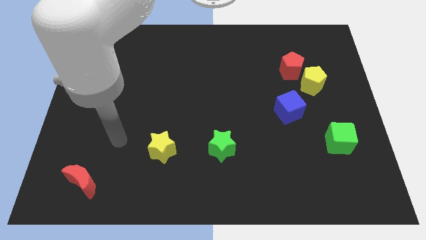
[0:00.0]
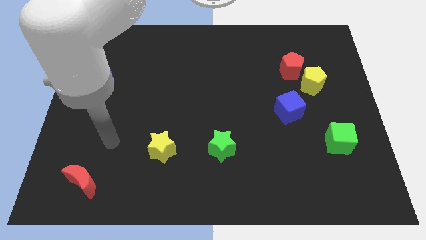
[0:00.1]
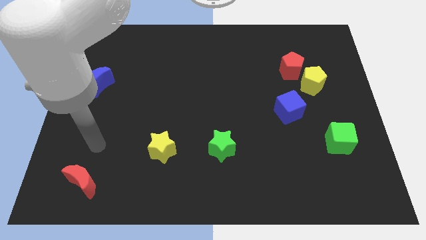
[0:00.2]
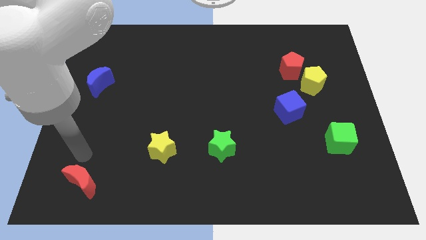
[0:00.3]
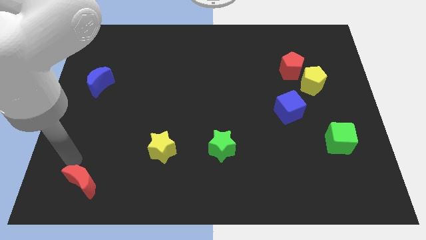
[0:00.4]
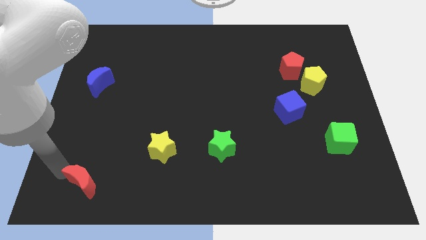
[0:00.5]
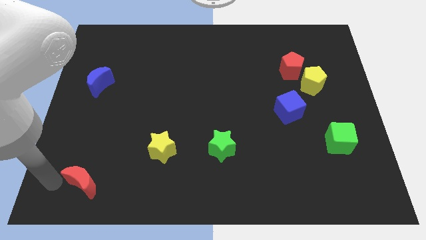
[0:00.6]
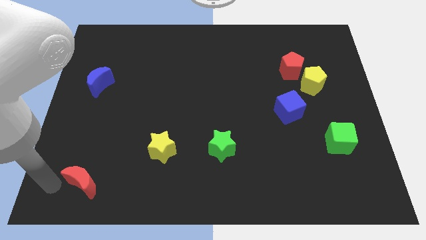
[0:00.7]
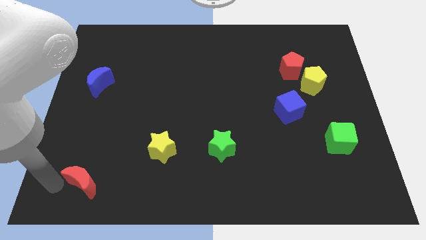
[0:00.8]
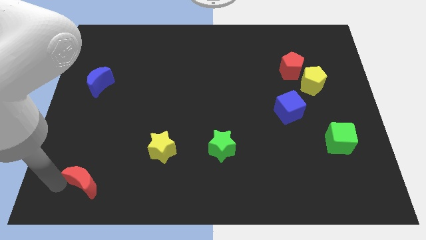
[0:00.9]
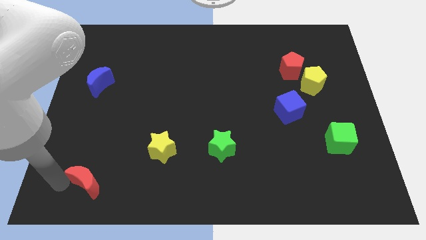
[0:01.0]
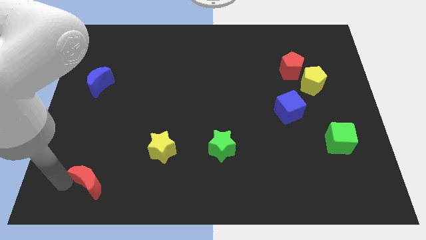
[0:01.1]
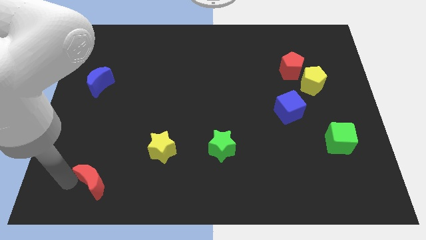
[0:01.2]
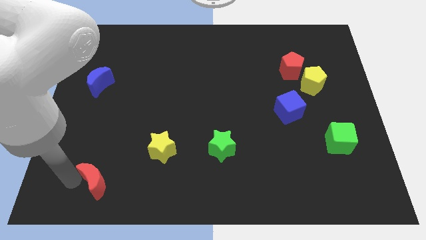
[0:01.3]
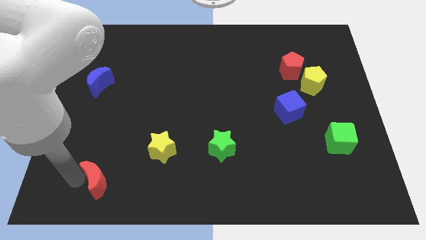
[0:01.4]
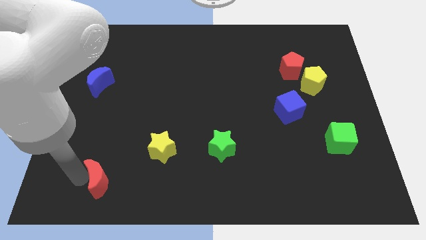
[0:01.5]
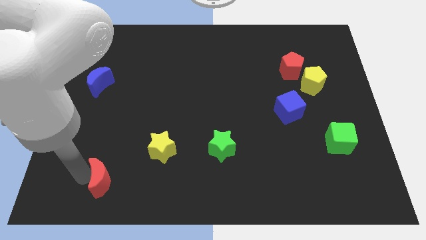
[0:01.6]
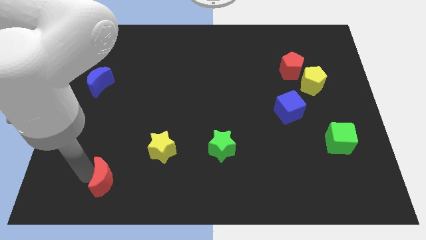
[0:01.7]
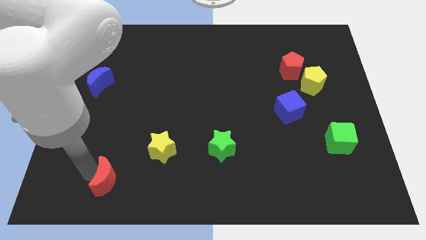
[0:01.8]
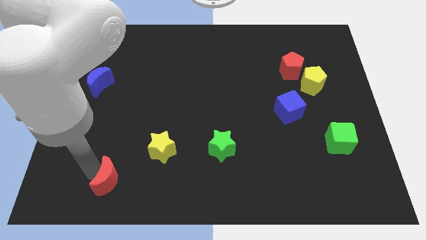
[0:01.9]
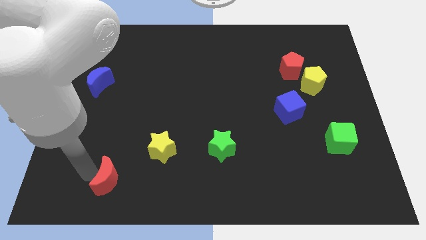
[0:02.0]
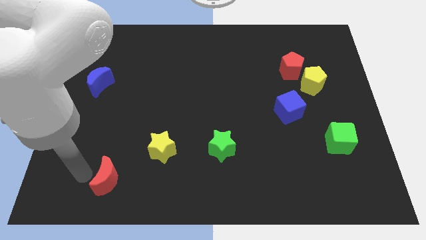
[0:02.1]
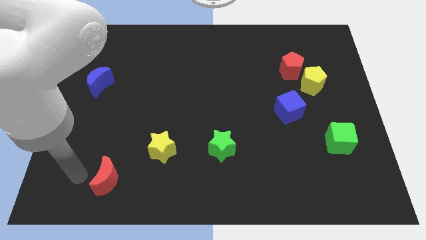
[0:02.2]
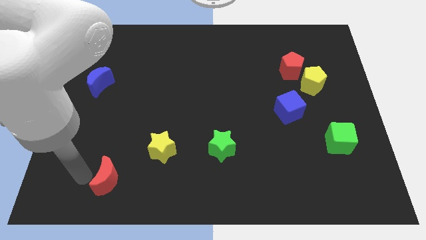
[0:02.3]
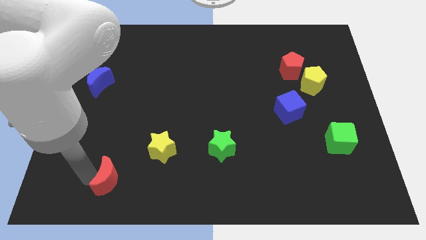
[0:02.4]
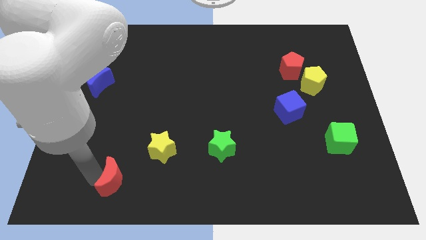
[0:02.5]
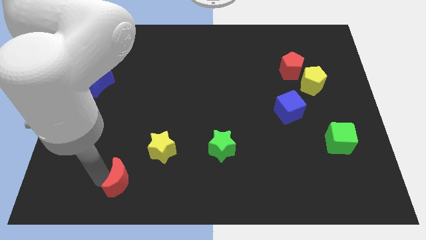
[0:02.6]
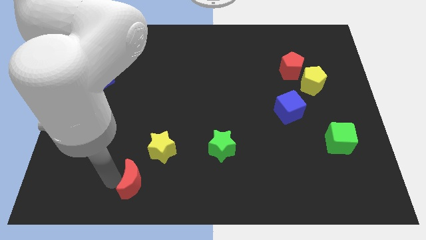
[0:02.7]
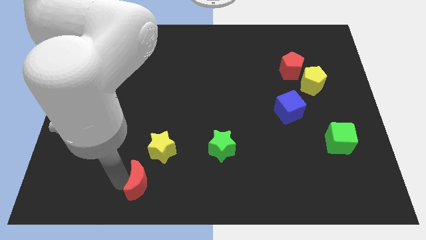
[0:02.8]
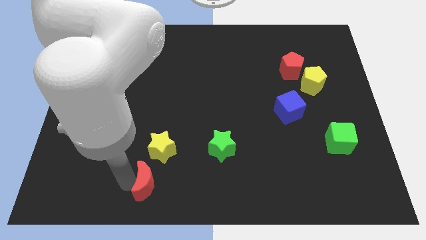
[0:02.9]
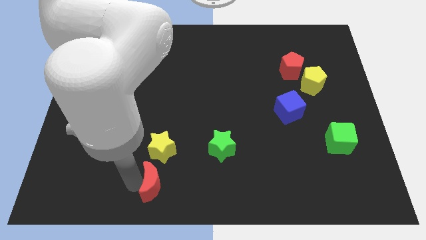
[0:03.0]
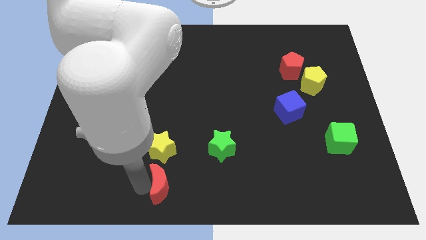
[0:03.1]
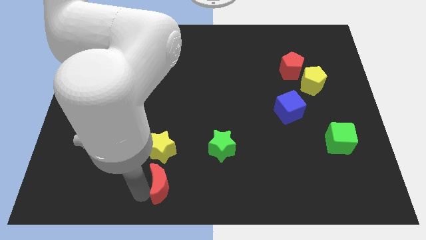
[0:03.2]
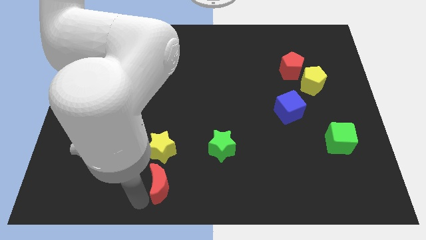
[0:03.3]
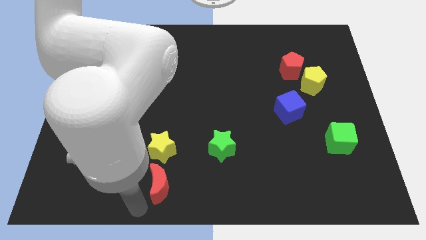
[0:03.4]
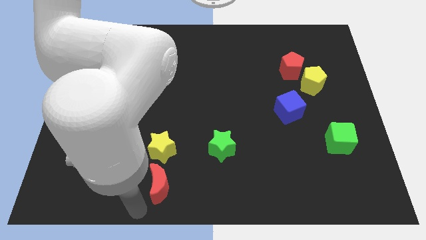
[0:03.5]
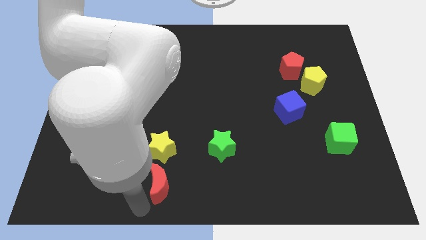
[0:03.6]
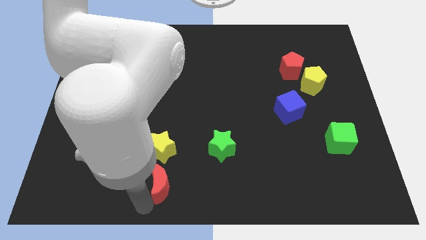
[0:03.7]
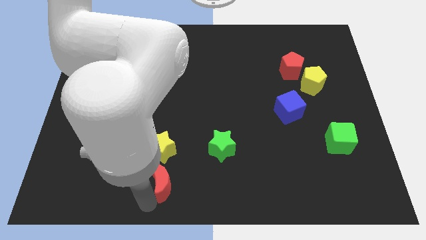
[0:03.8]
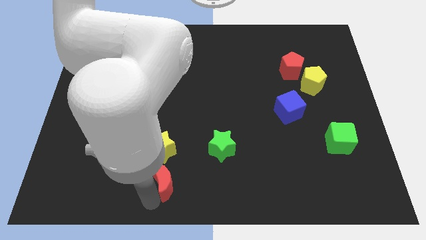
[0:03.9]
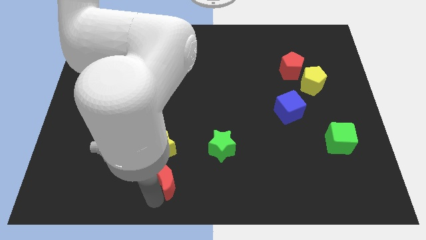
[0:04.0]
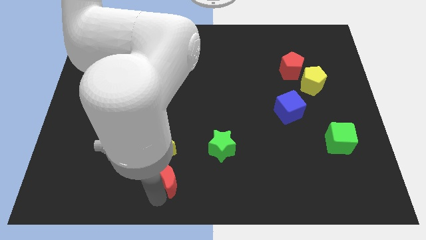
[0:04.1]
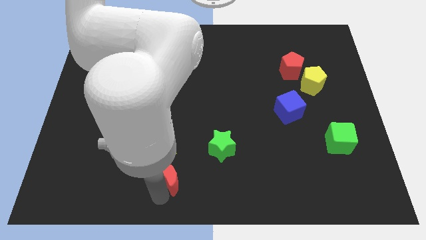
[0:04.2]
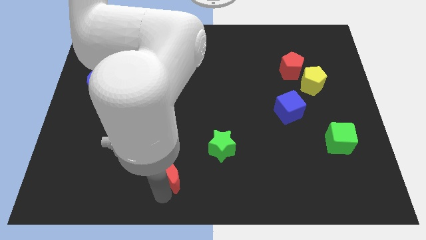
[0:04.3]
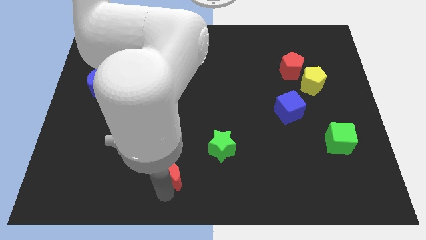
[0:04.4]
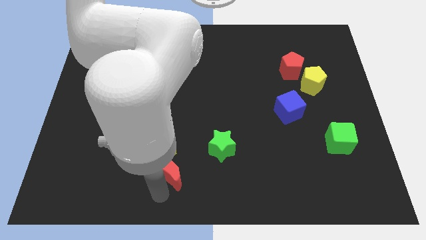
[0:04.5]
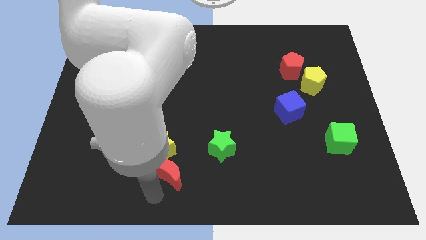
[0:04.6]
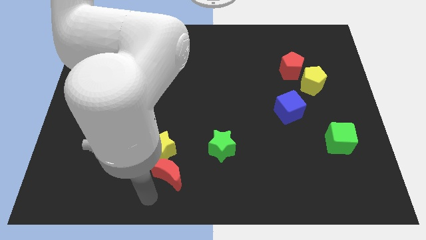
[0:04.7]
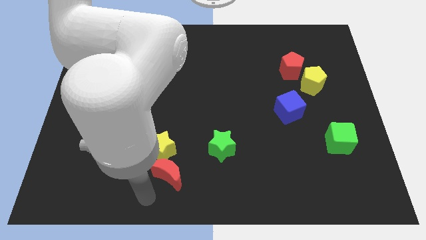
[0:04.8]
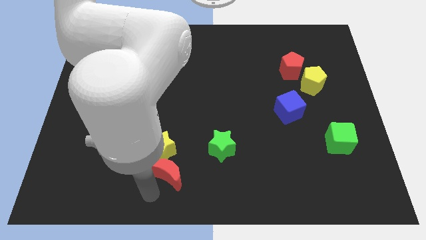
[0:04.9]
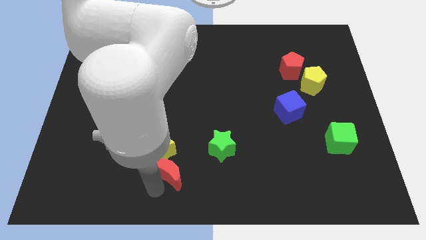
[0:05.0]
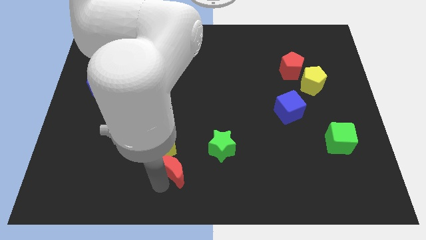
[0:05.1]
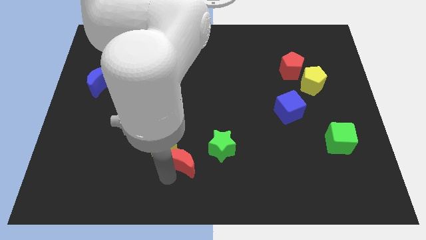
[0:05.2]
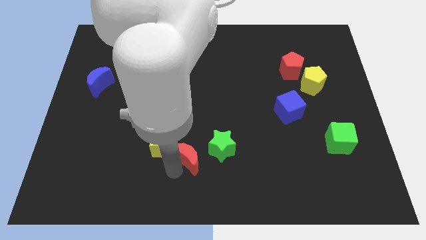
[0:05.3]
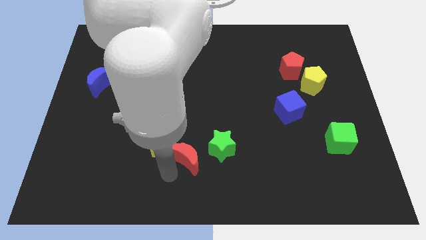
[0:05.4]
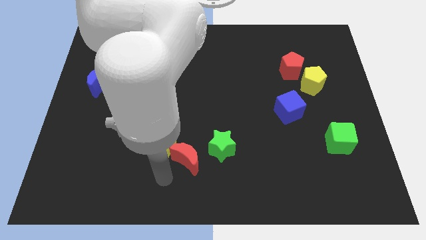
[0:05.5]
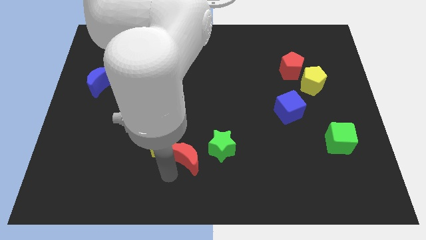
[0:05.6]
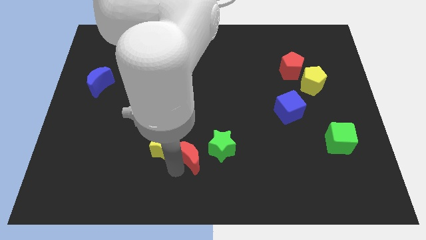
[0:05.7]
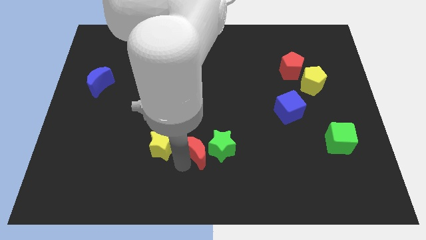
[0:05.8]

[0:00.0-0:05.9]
move the red moon towards the green star
